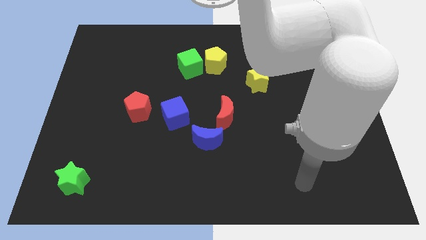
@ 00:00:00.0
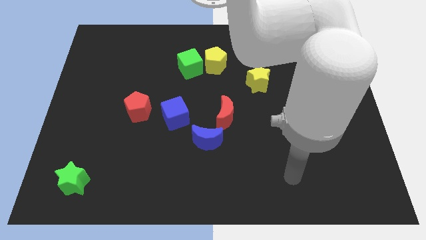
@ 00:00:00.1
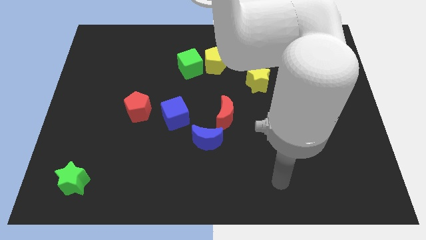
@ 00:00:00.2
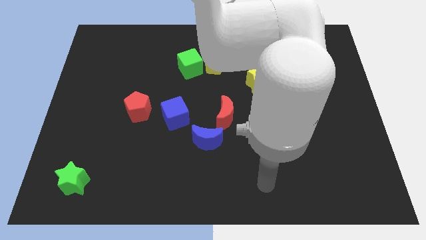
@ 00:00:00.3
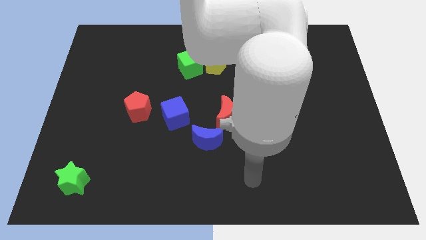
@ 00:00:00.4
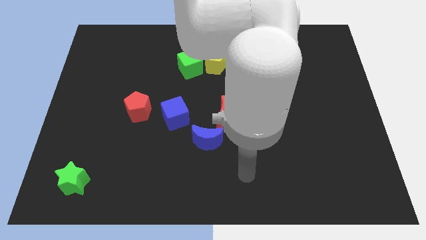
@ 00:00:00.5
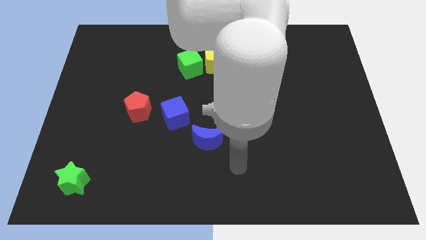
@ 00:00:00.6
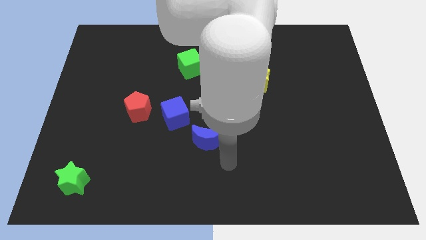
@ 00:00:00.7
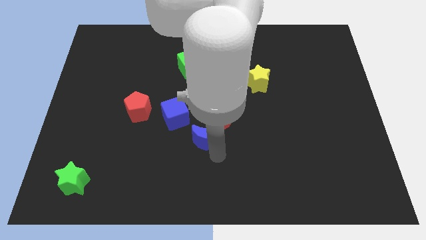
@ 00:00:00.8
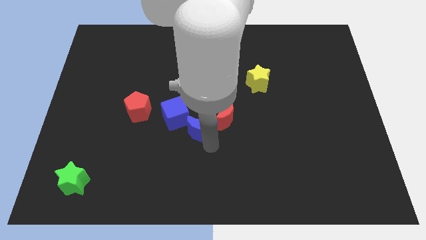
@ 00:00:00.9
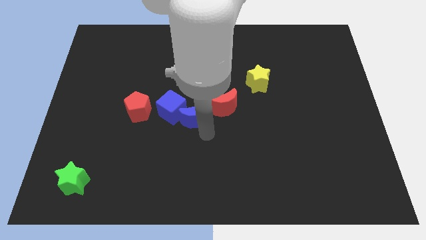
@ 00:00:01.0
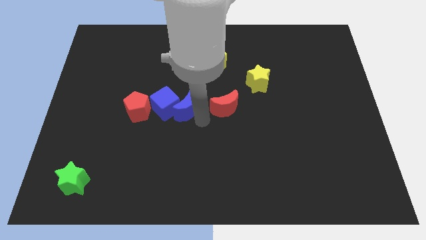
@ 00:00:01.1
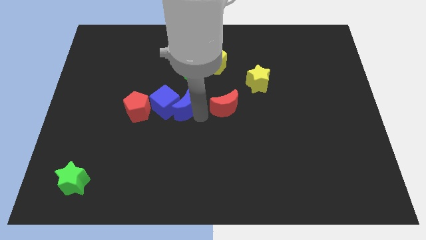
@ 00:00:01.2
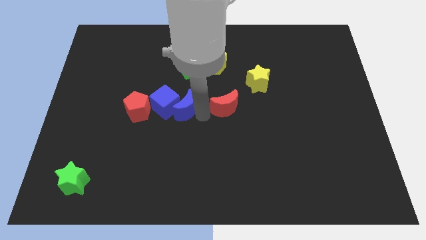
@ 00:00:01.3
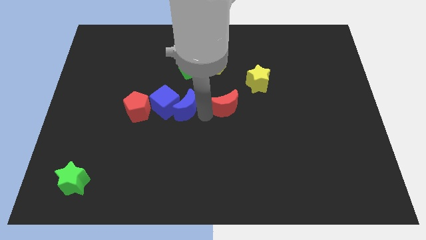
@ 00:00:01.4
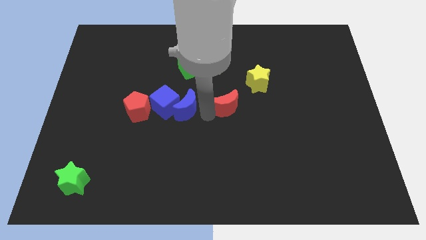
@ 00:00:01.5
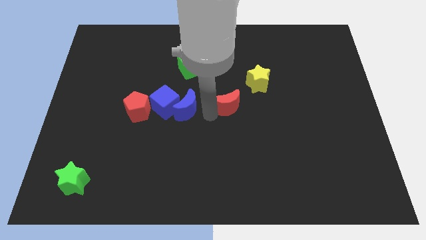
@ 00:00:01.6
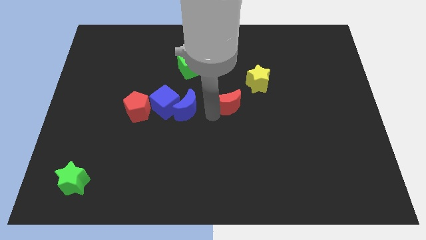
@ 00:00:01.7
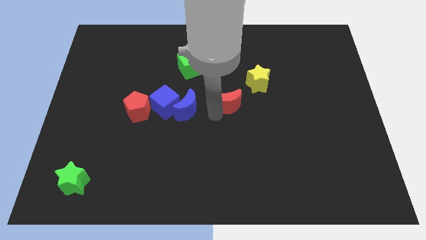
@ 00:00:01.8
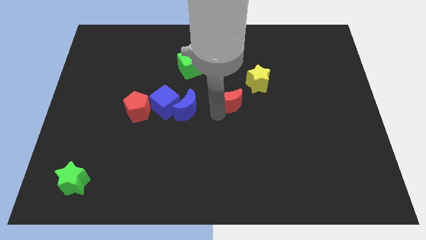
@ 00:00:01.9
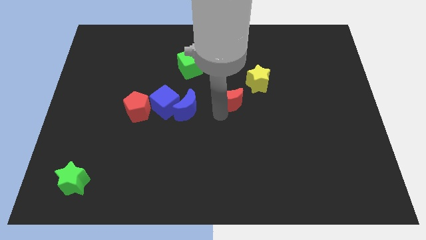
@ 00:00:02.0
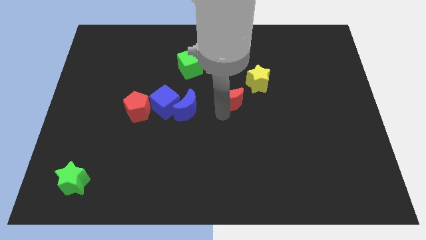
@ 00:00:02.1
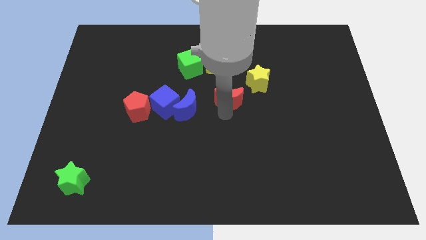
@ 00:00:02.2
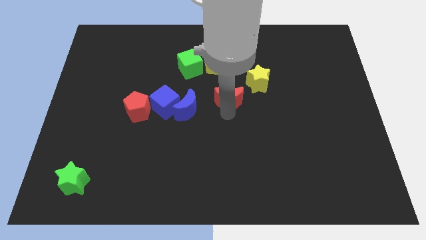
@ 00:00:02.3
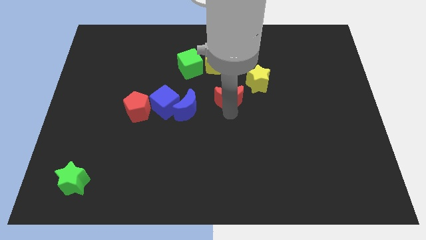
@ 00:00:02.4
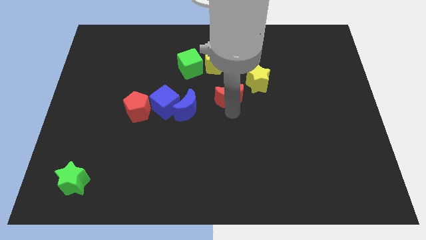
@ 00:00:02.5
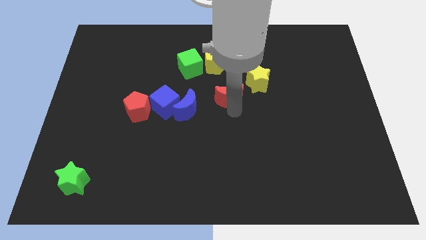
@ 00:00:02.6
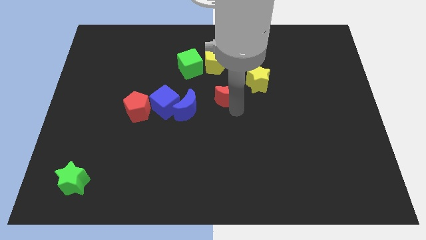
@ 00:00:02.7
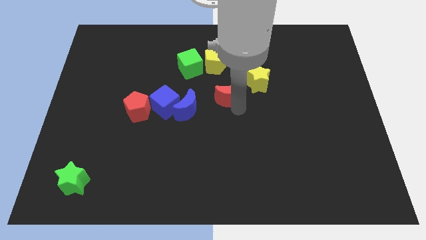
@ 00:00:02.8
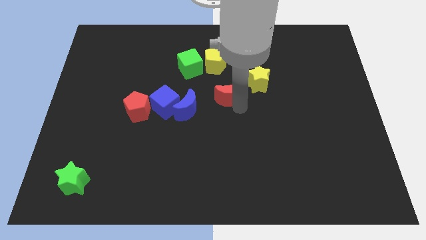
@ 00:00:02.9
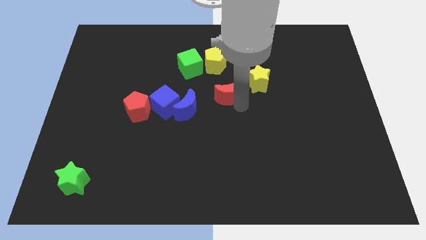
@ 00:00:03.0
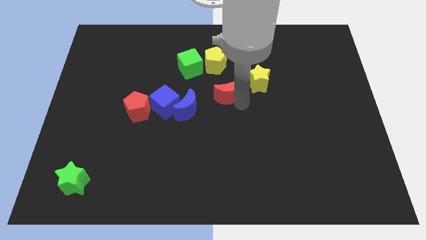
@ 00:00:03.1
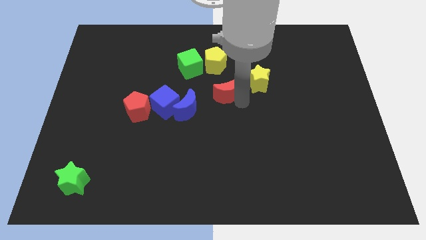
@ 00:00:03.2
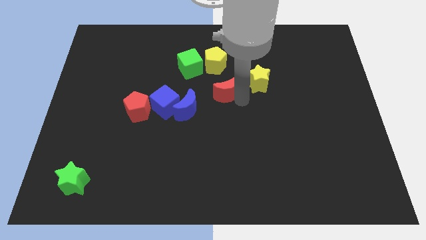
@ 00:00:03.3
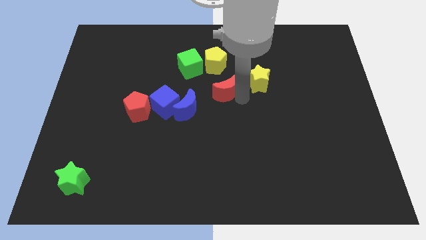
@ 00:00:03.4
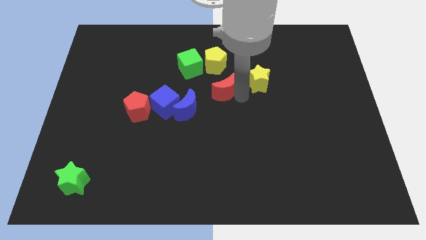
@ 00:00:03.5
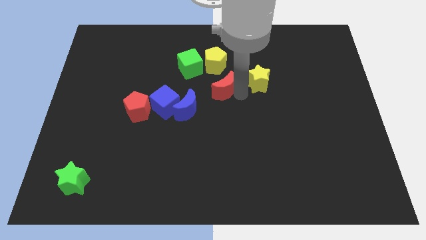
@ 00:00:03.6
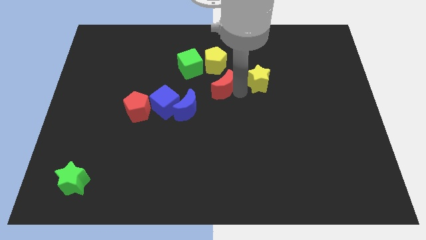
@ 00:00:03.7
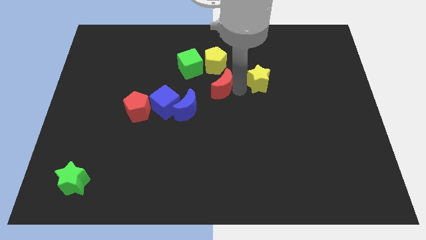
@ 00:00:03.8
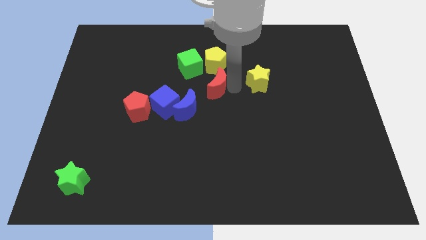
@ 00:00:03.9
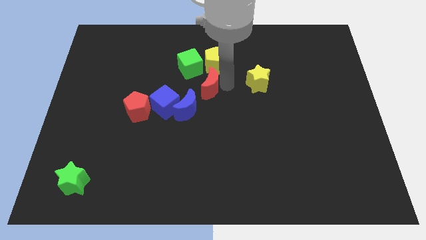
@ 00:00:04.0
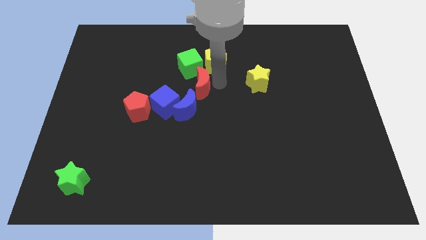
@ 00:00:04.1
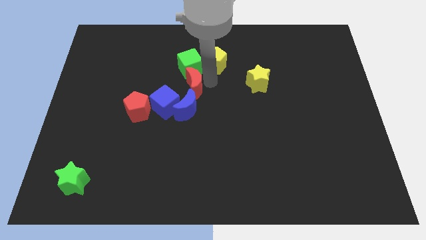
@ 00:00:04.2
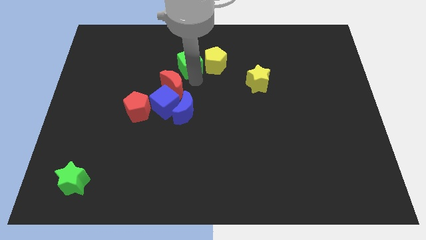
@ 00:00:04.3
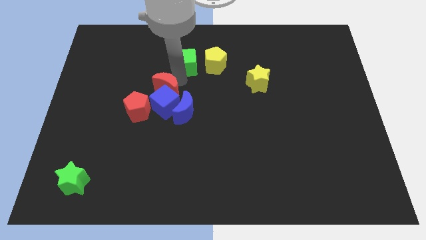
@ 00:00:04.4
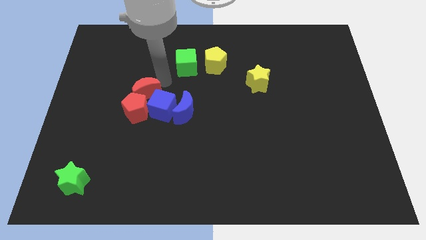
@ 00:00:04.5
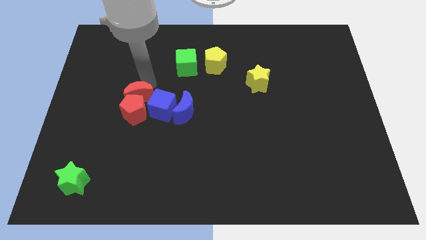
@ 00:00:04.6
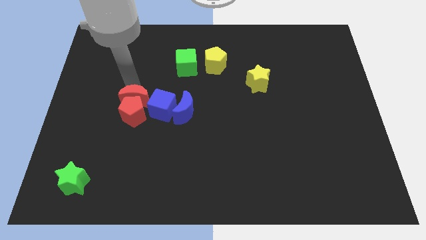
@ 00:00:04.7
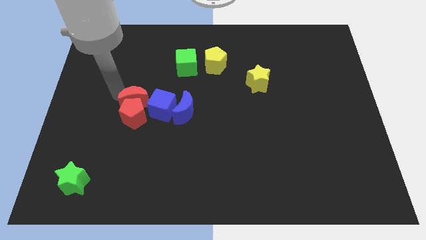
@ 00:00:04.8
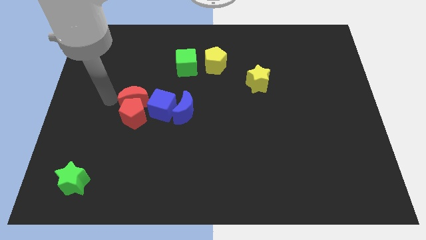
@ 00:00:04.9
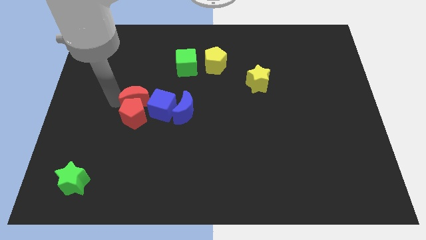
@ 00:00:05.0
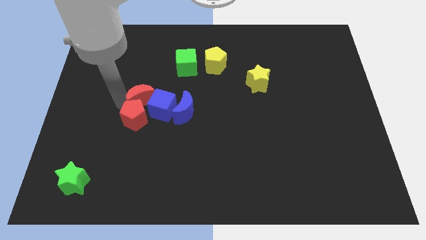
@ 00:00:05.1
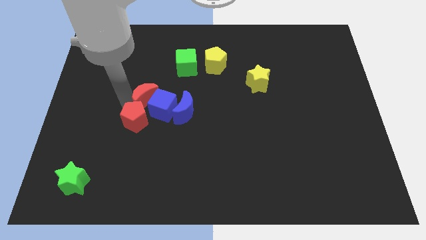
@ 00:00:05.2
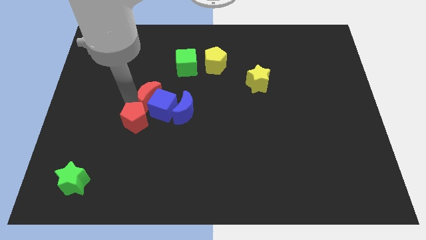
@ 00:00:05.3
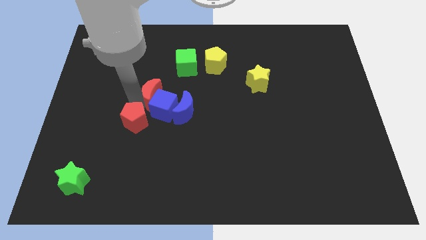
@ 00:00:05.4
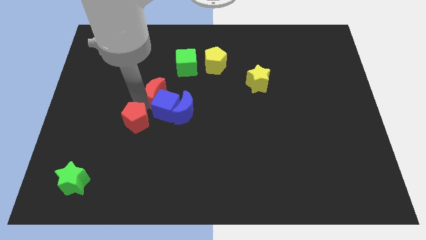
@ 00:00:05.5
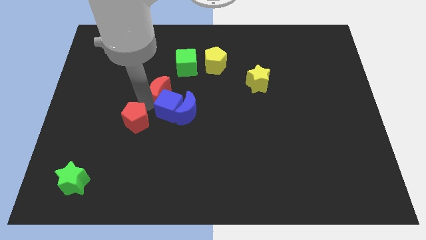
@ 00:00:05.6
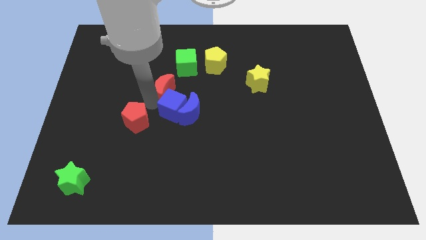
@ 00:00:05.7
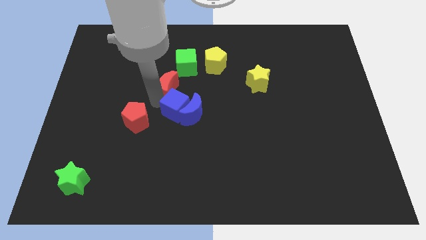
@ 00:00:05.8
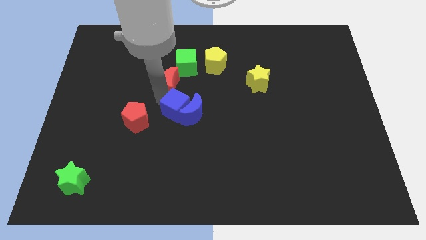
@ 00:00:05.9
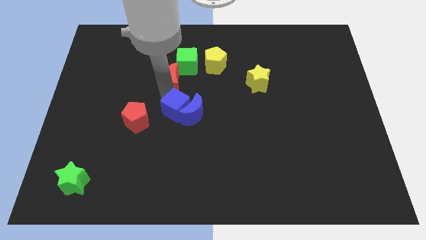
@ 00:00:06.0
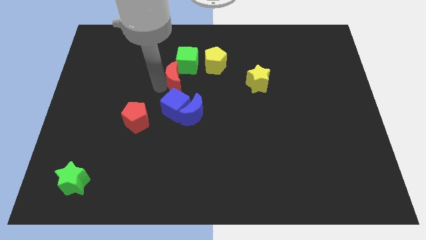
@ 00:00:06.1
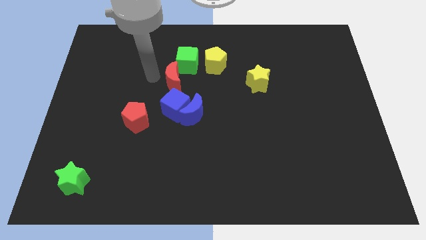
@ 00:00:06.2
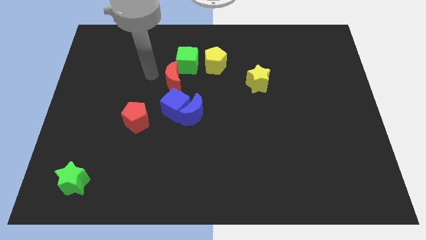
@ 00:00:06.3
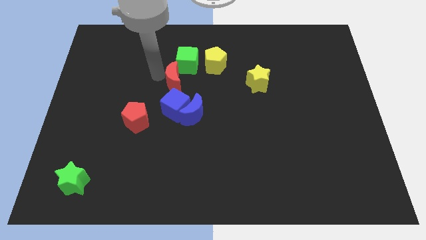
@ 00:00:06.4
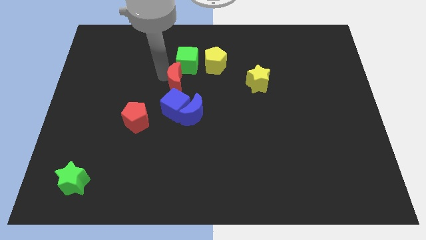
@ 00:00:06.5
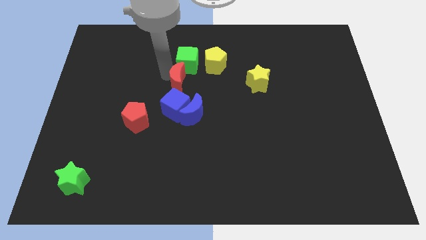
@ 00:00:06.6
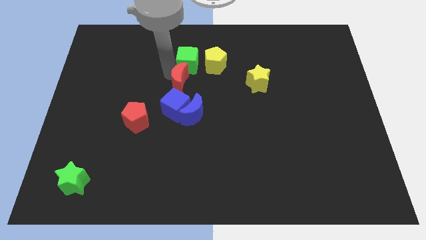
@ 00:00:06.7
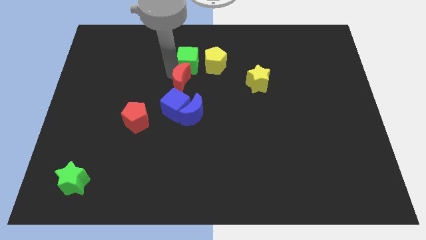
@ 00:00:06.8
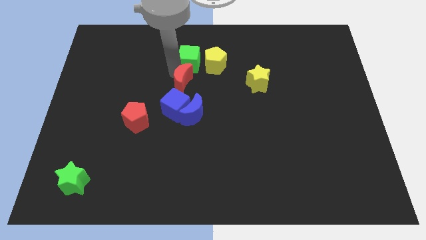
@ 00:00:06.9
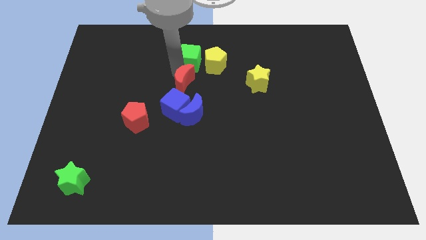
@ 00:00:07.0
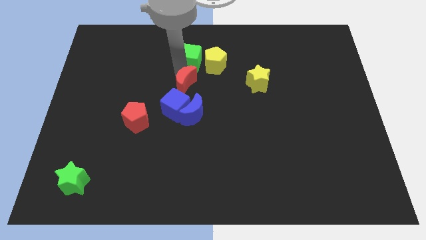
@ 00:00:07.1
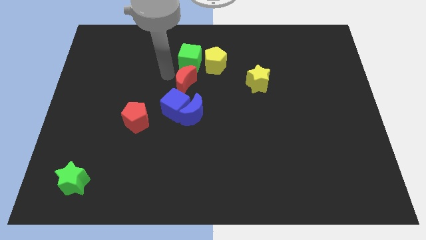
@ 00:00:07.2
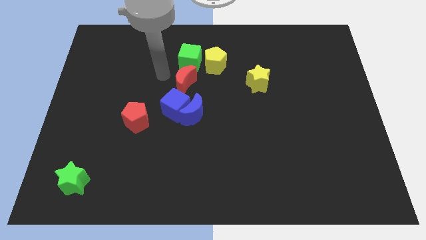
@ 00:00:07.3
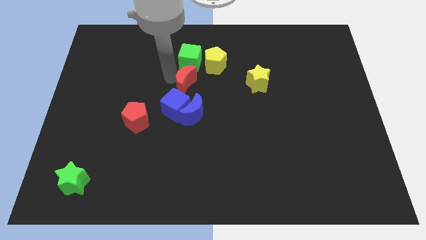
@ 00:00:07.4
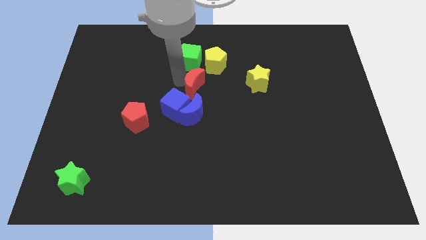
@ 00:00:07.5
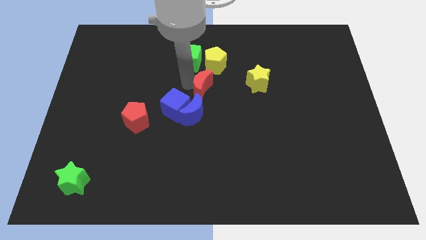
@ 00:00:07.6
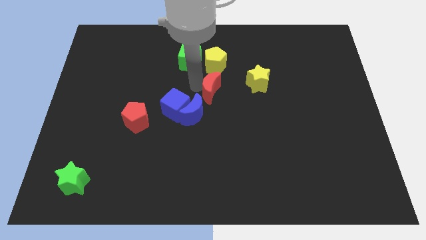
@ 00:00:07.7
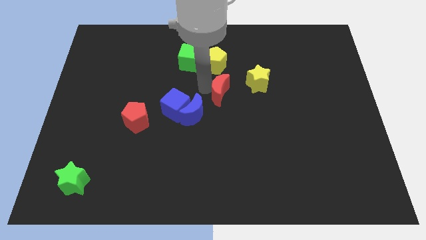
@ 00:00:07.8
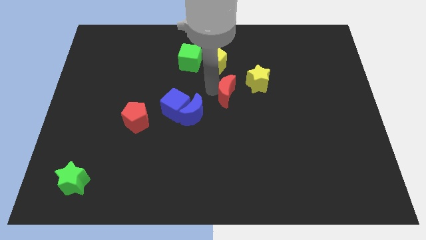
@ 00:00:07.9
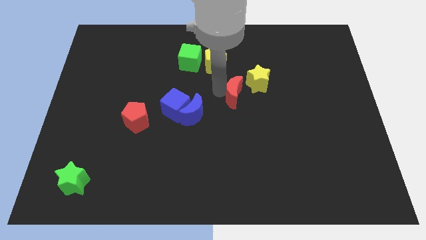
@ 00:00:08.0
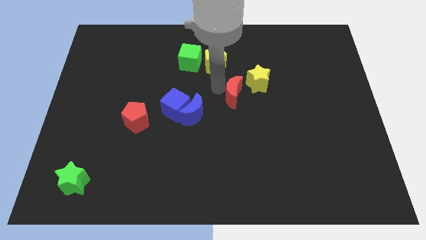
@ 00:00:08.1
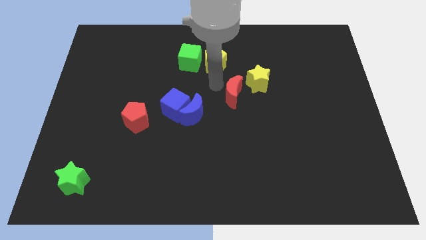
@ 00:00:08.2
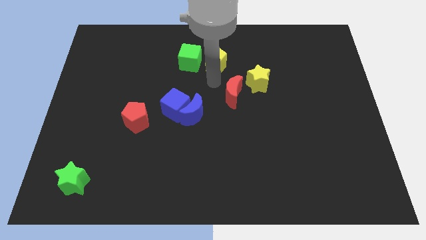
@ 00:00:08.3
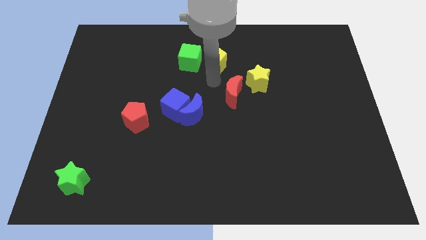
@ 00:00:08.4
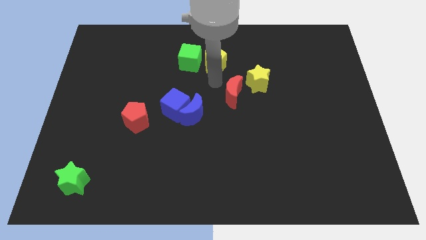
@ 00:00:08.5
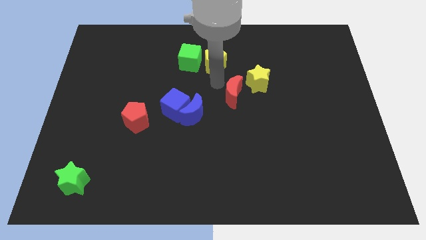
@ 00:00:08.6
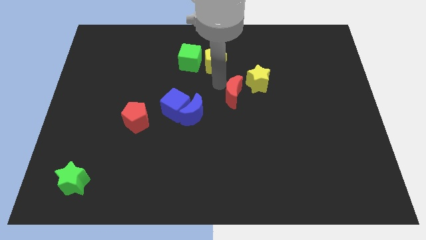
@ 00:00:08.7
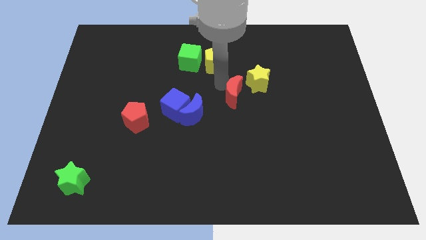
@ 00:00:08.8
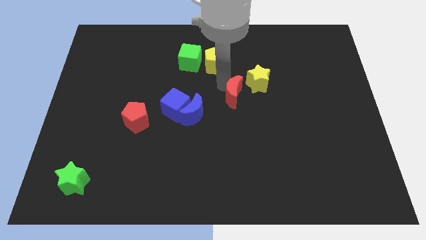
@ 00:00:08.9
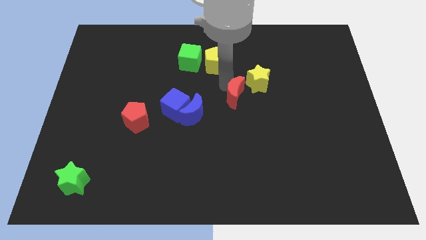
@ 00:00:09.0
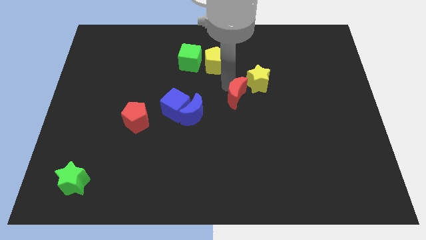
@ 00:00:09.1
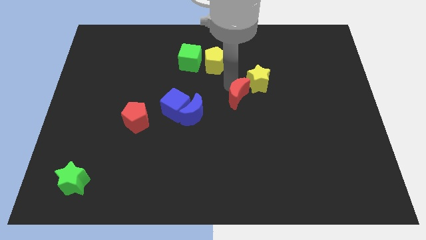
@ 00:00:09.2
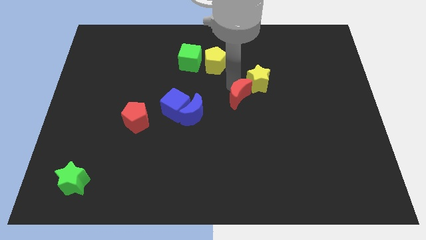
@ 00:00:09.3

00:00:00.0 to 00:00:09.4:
push the red moon up and to the right diagonally a little bit
